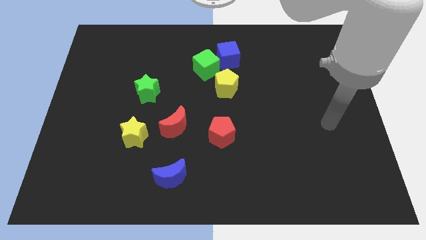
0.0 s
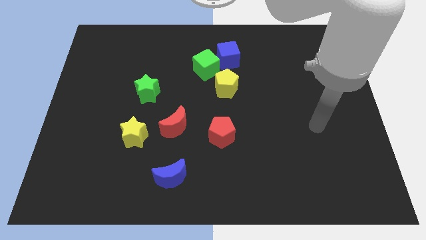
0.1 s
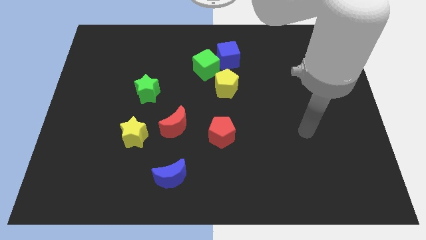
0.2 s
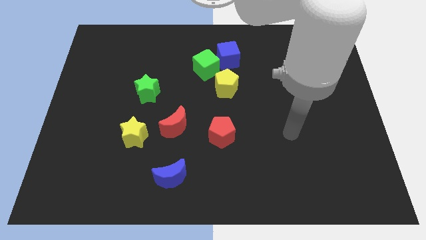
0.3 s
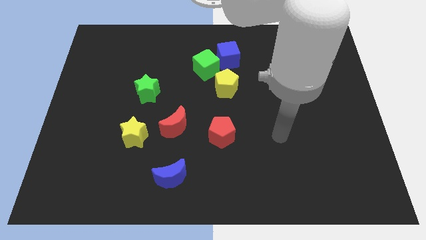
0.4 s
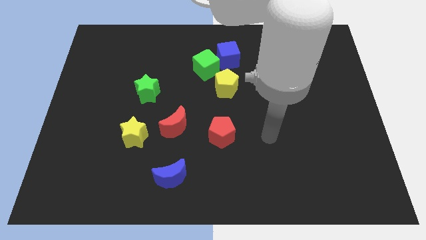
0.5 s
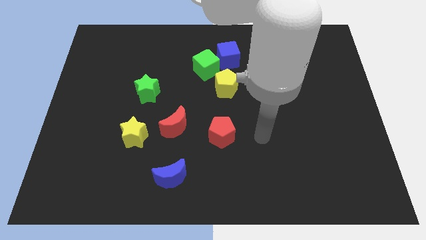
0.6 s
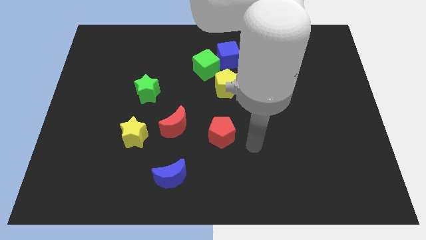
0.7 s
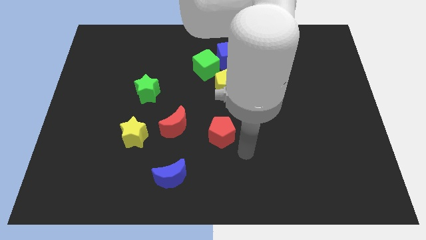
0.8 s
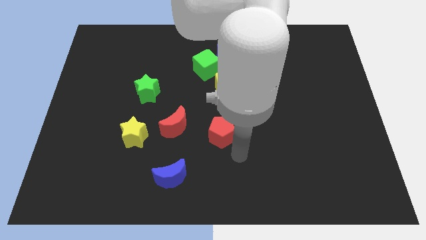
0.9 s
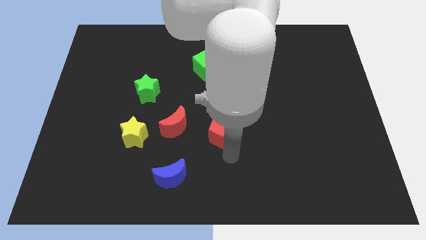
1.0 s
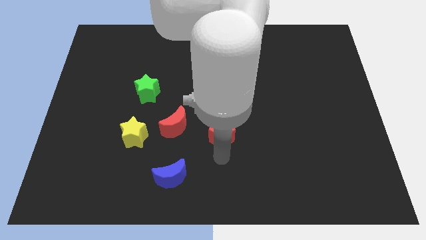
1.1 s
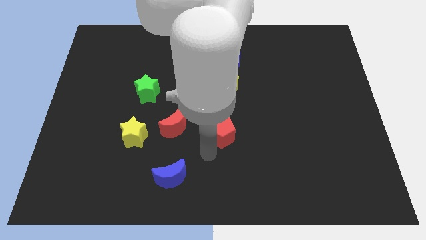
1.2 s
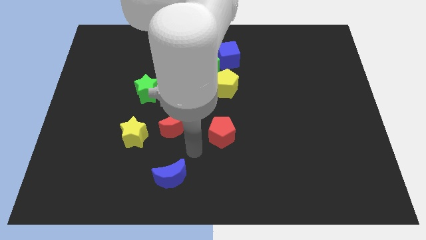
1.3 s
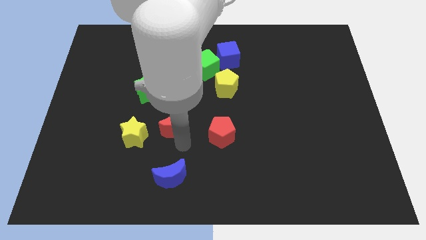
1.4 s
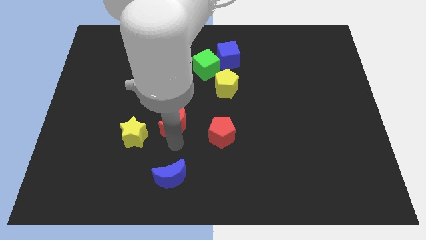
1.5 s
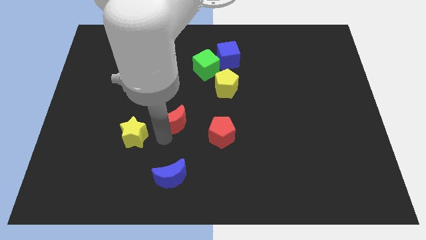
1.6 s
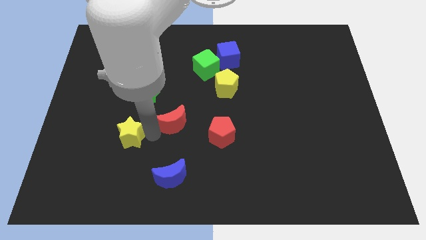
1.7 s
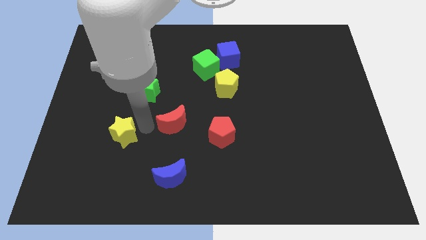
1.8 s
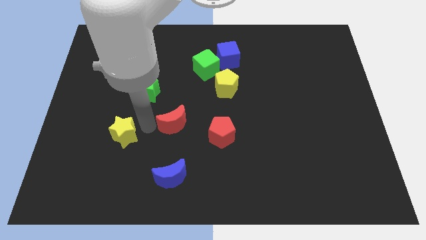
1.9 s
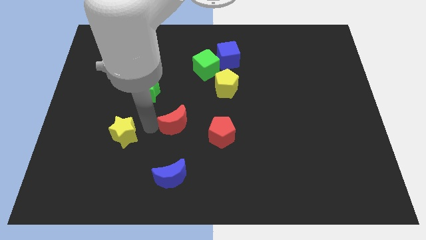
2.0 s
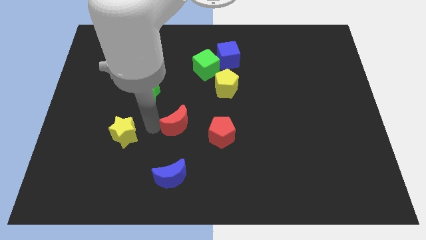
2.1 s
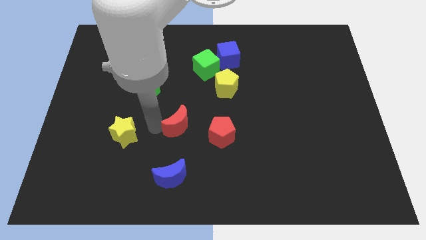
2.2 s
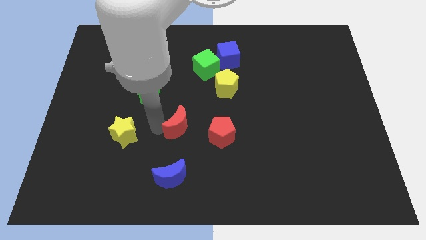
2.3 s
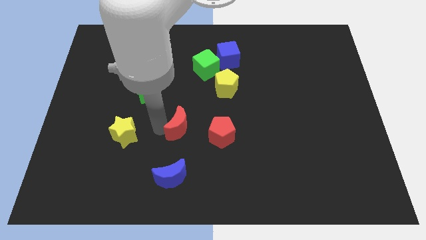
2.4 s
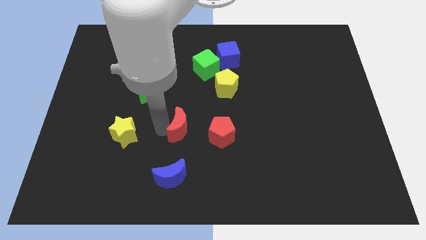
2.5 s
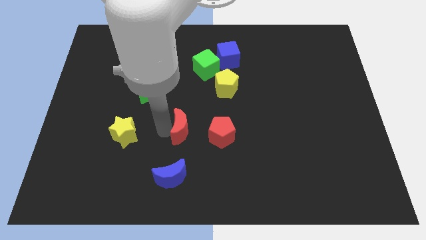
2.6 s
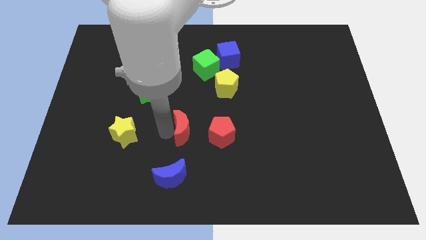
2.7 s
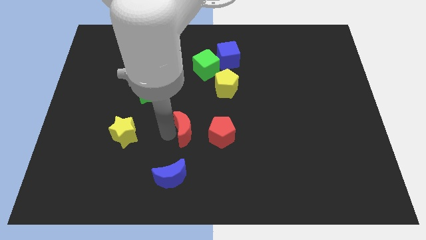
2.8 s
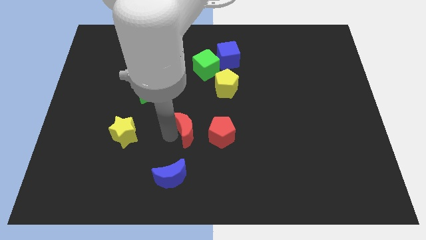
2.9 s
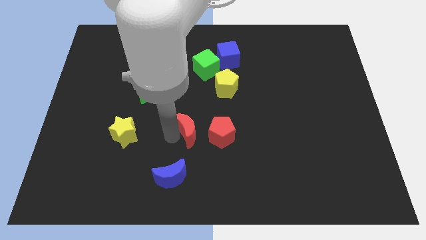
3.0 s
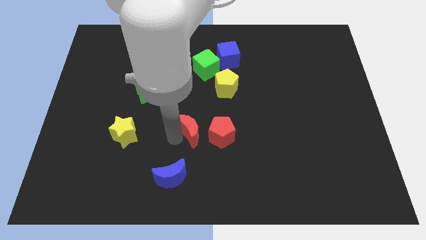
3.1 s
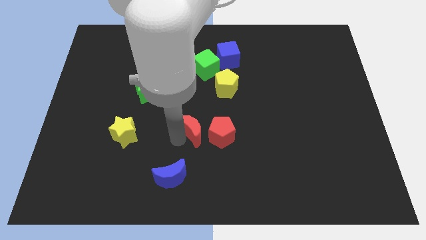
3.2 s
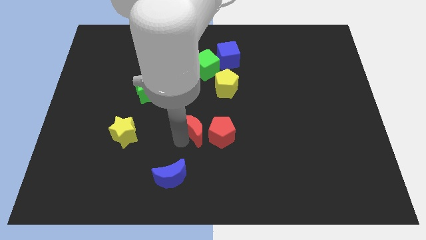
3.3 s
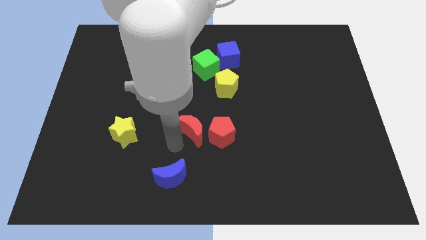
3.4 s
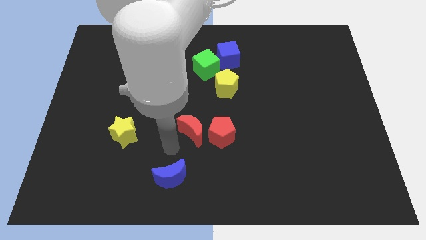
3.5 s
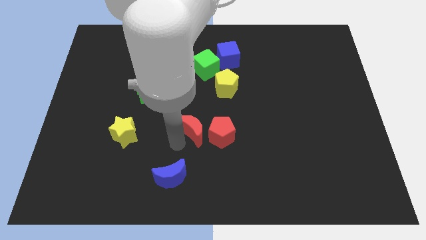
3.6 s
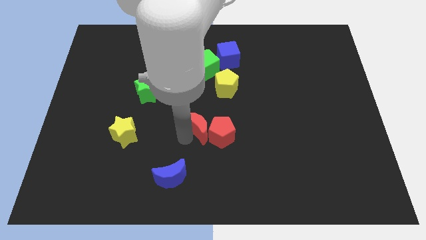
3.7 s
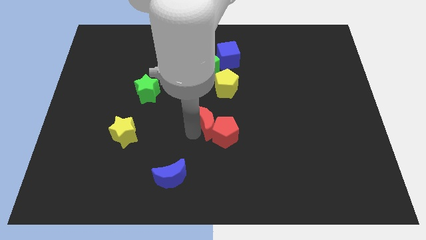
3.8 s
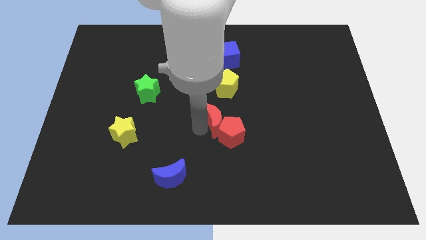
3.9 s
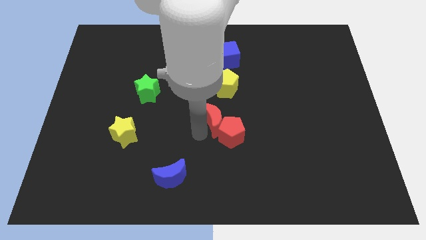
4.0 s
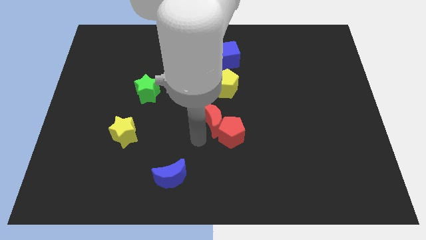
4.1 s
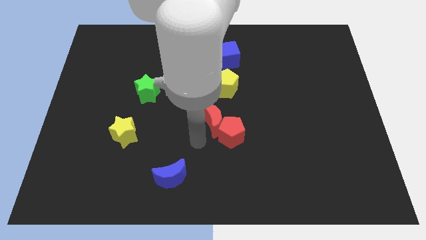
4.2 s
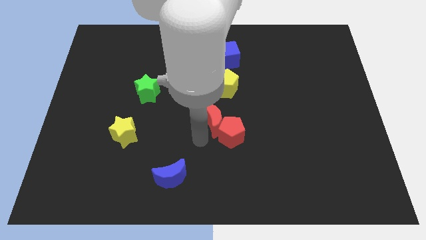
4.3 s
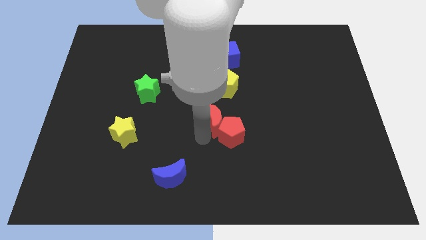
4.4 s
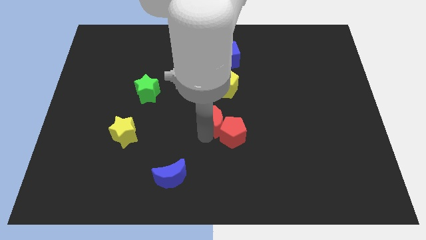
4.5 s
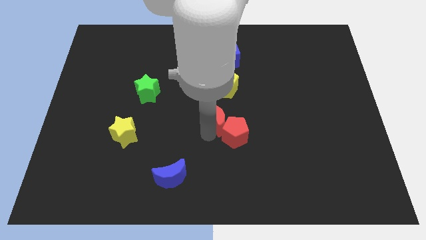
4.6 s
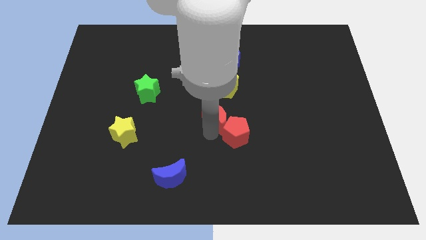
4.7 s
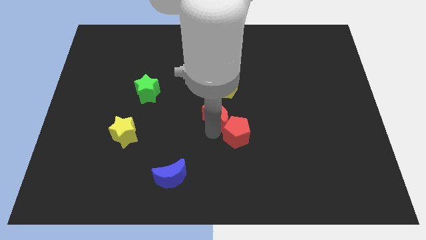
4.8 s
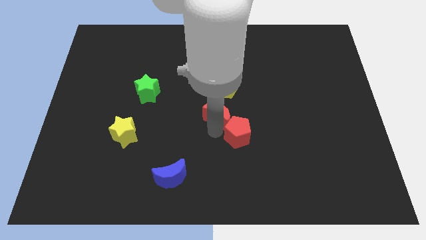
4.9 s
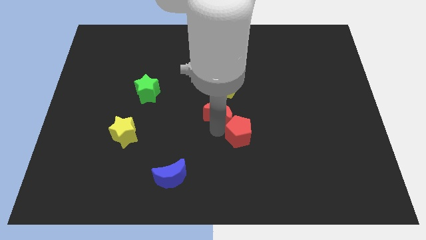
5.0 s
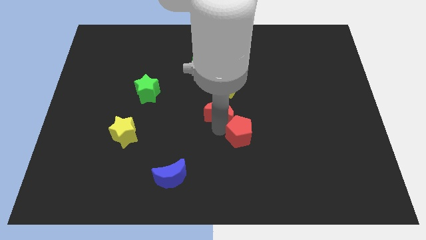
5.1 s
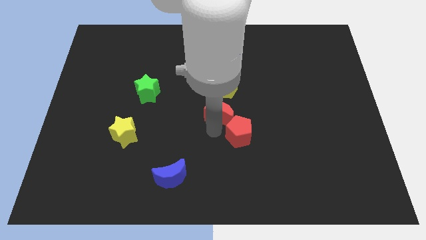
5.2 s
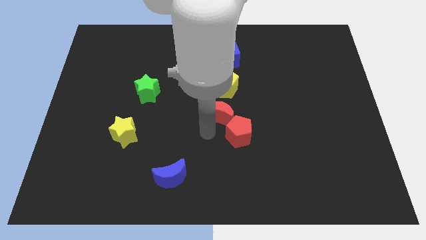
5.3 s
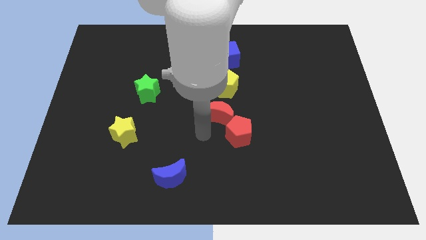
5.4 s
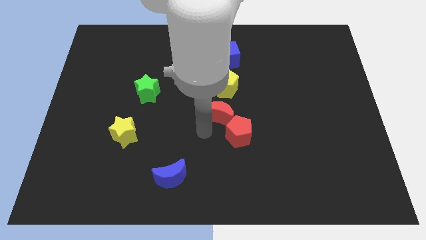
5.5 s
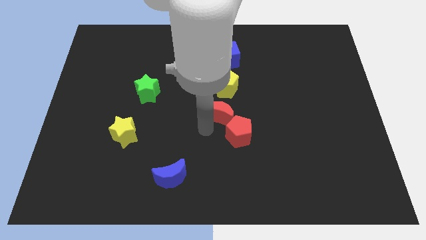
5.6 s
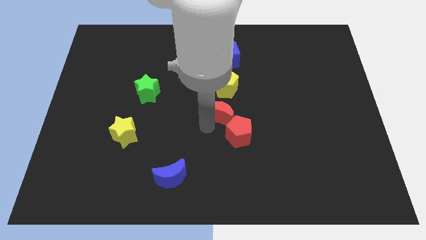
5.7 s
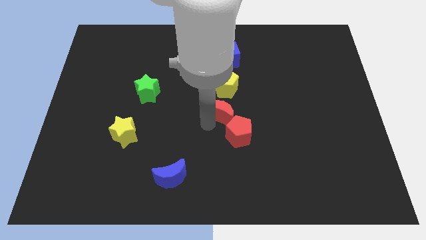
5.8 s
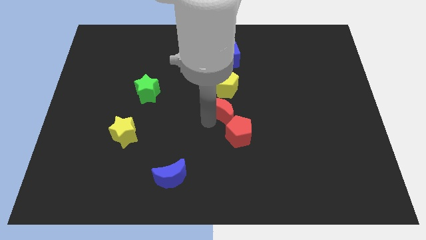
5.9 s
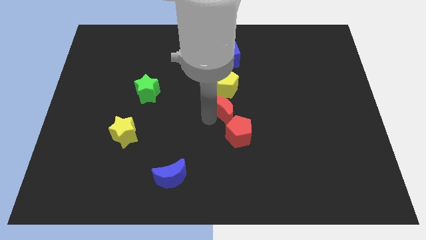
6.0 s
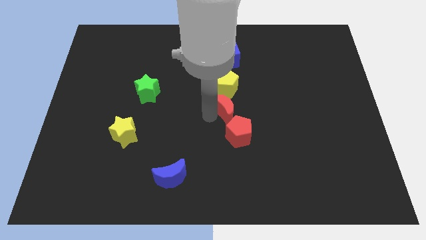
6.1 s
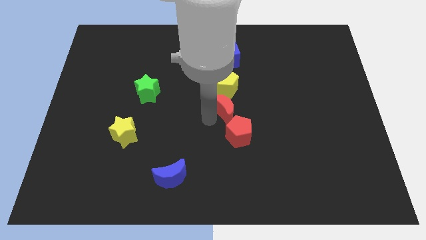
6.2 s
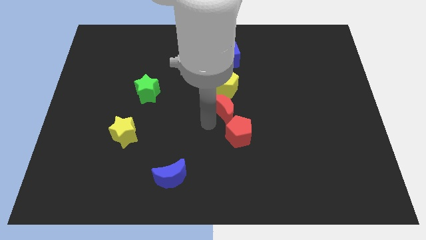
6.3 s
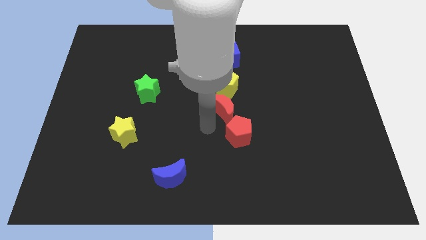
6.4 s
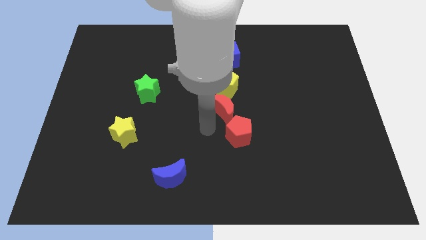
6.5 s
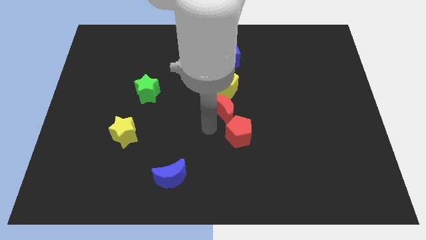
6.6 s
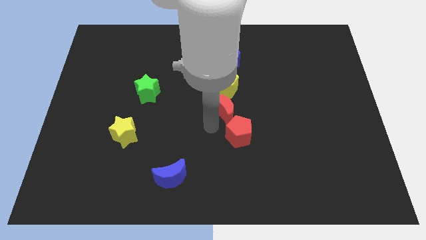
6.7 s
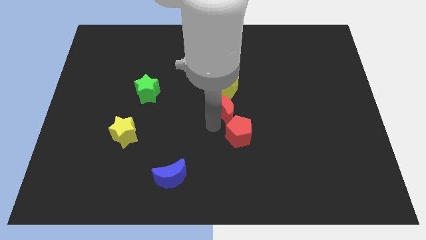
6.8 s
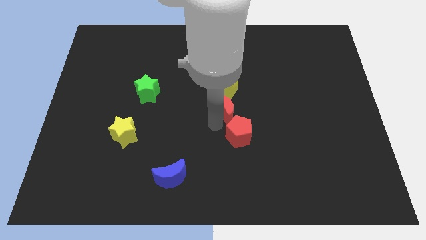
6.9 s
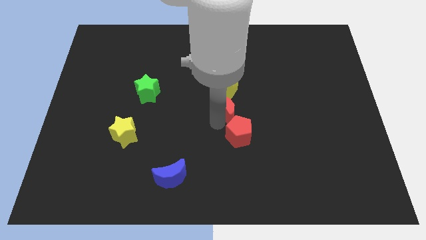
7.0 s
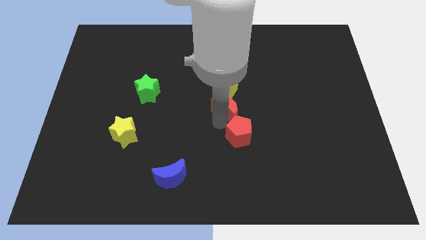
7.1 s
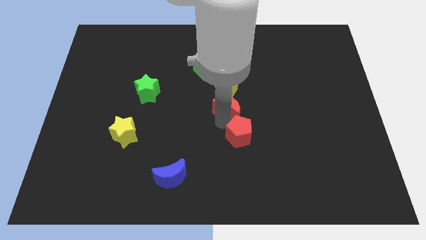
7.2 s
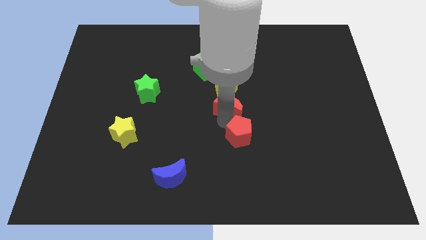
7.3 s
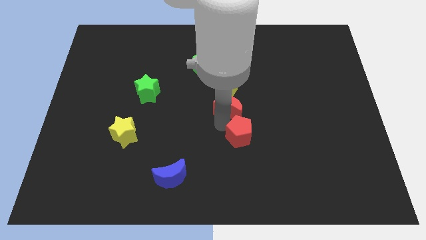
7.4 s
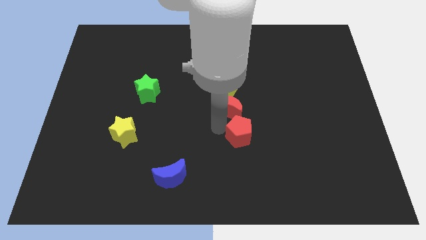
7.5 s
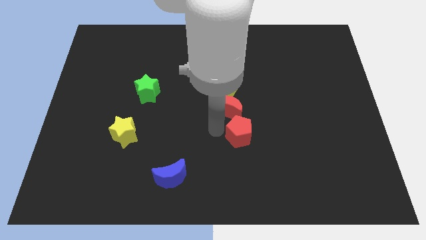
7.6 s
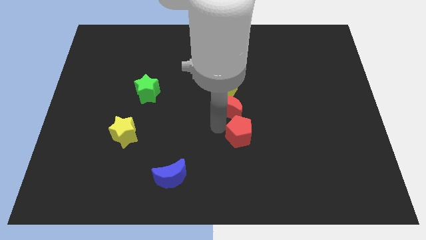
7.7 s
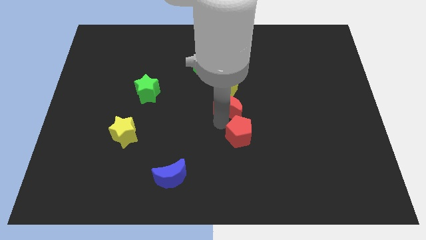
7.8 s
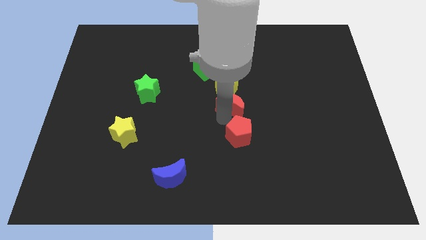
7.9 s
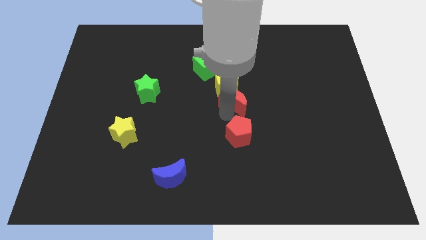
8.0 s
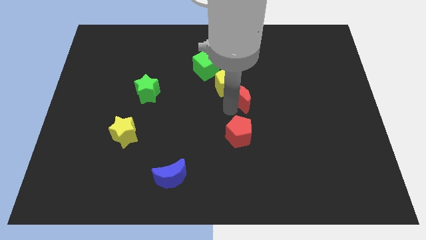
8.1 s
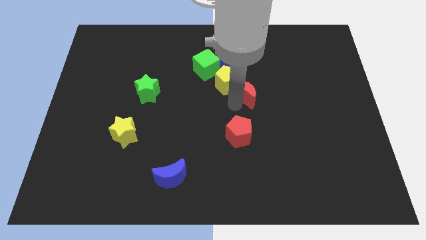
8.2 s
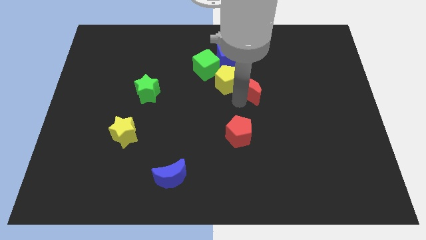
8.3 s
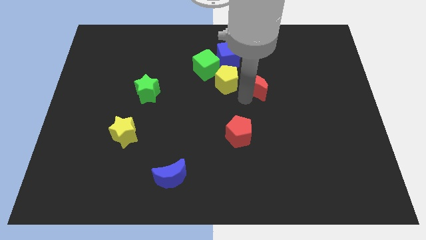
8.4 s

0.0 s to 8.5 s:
move the red moon to the bottom right of the blue cube
